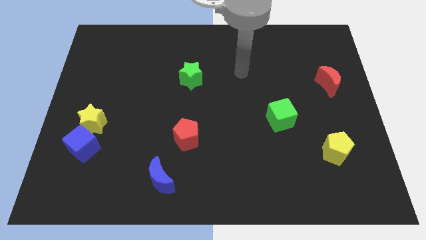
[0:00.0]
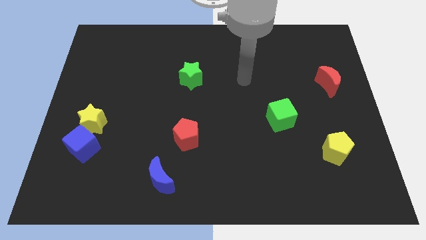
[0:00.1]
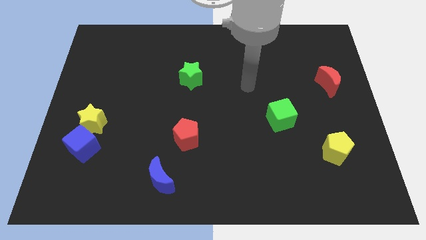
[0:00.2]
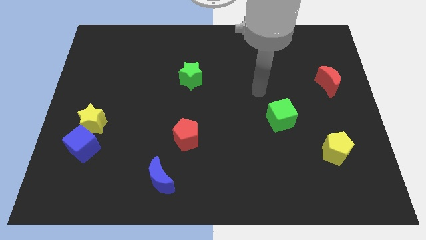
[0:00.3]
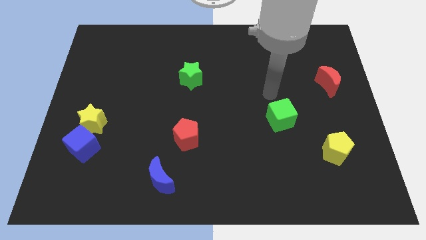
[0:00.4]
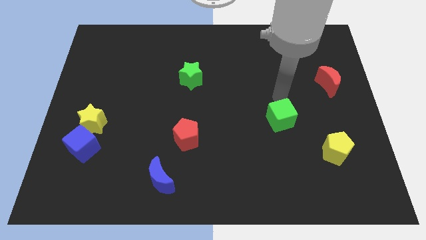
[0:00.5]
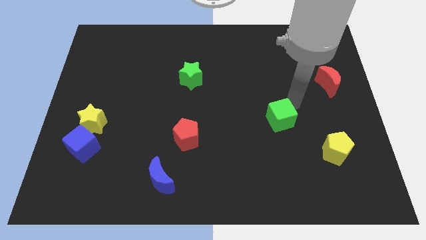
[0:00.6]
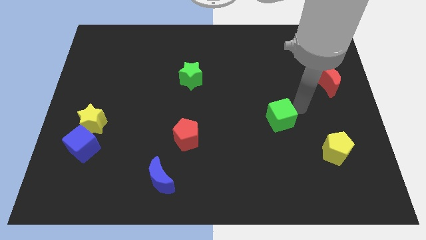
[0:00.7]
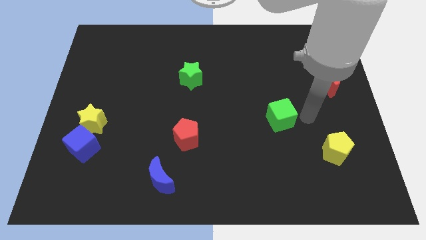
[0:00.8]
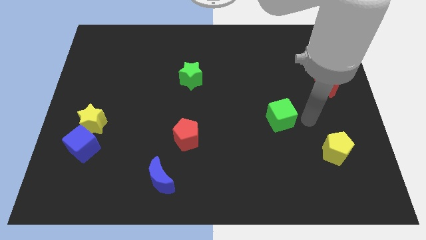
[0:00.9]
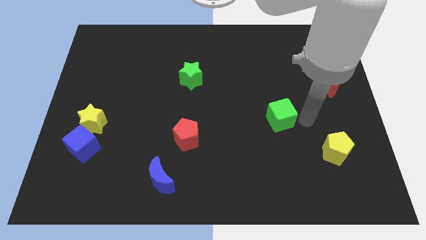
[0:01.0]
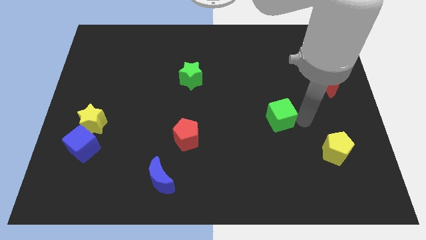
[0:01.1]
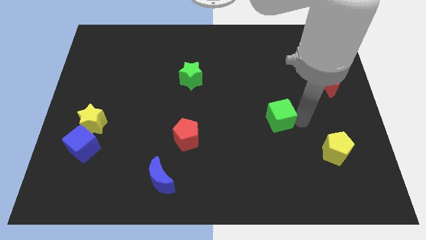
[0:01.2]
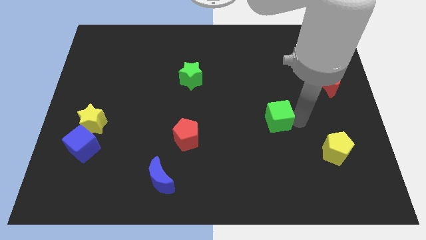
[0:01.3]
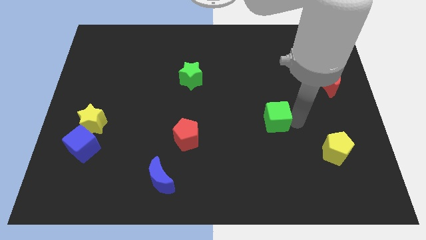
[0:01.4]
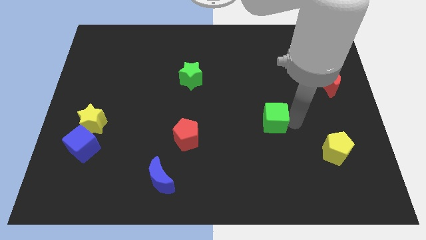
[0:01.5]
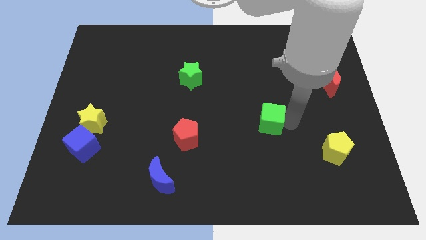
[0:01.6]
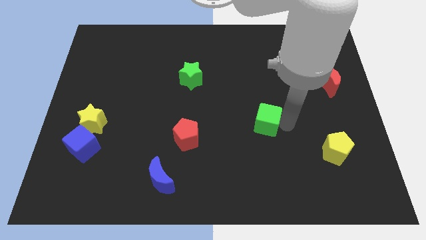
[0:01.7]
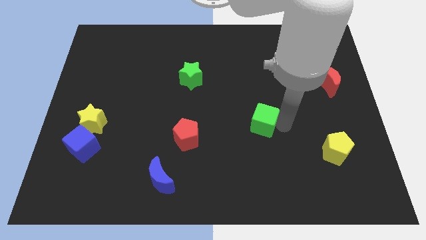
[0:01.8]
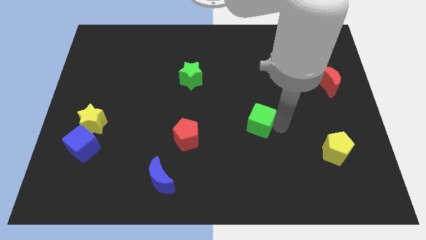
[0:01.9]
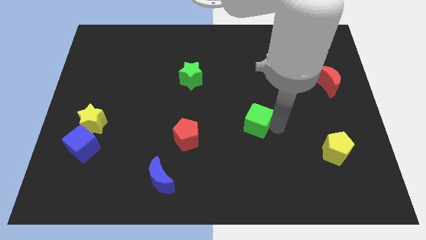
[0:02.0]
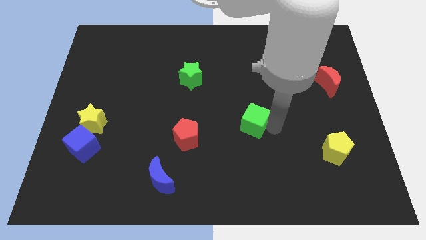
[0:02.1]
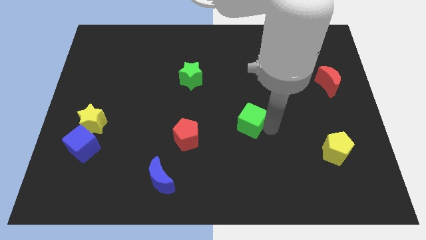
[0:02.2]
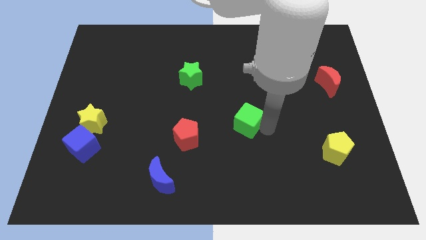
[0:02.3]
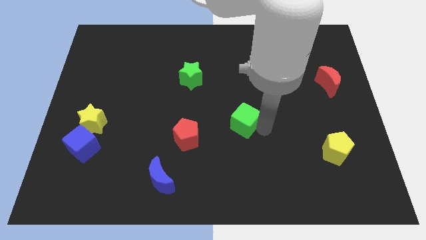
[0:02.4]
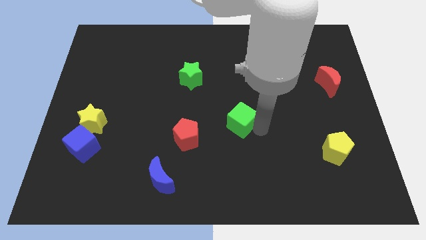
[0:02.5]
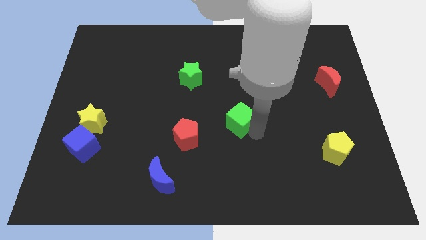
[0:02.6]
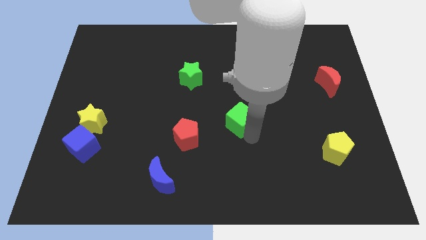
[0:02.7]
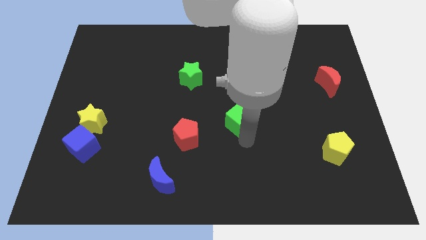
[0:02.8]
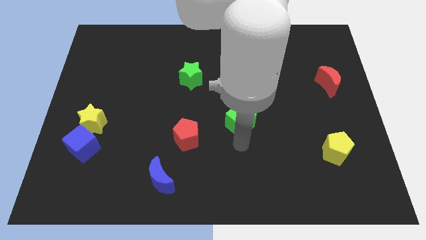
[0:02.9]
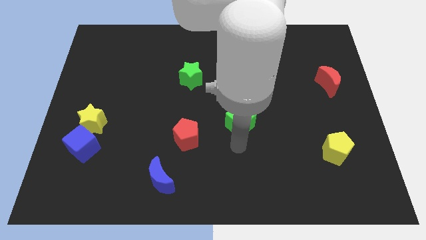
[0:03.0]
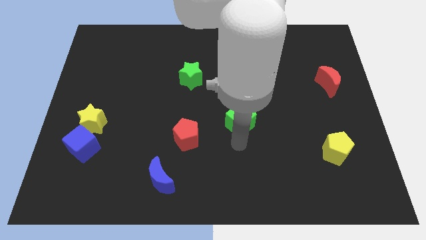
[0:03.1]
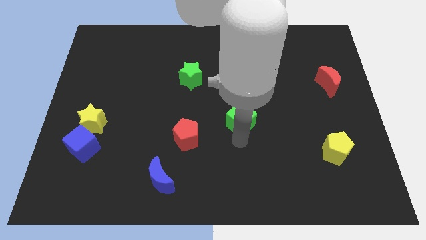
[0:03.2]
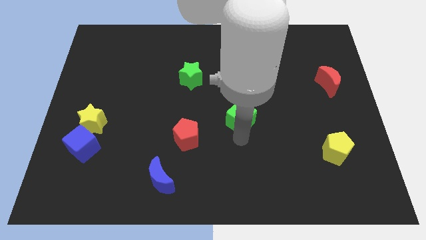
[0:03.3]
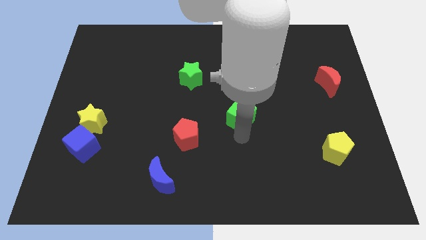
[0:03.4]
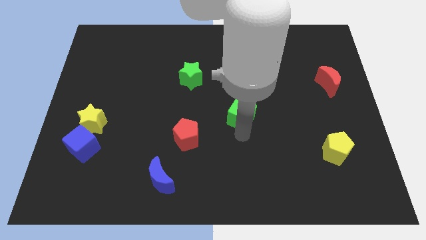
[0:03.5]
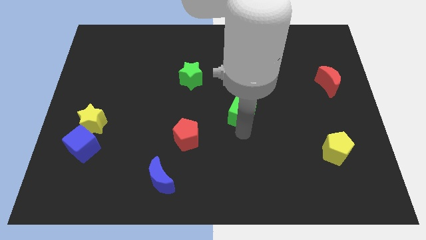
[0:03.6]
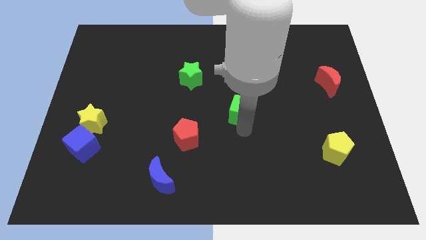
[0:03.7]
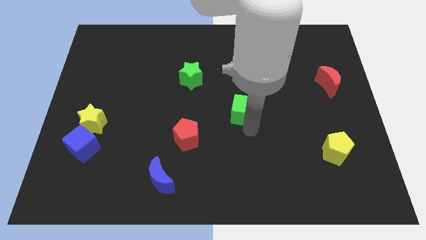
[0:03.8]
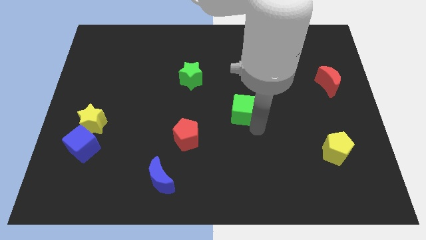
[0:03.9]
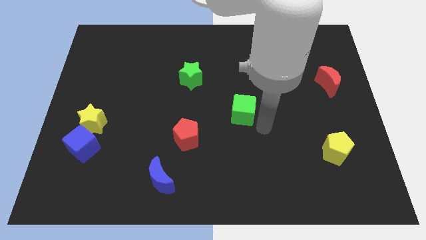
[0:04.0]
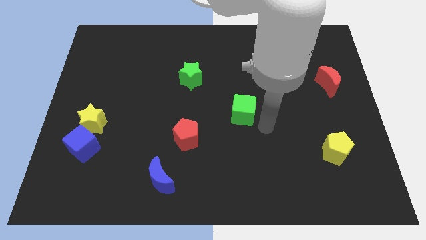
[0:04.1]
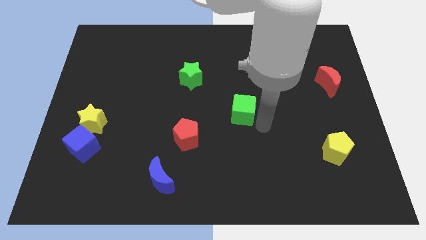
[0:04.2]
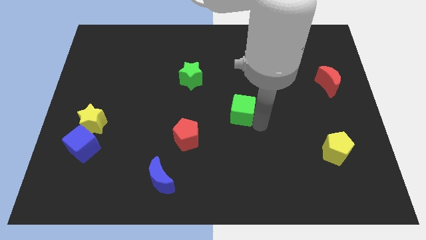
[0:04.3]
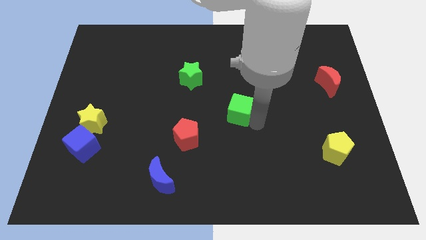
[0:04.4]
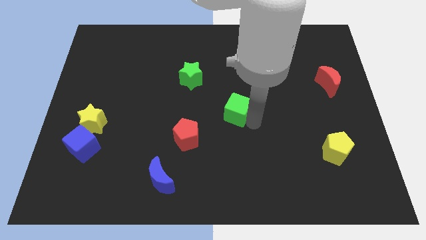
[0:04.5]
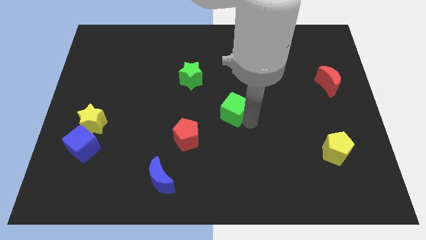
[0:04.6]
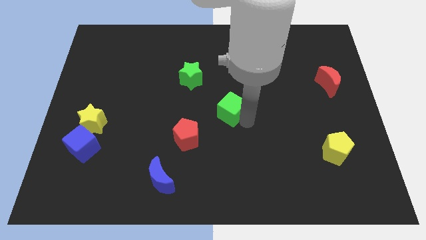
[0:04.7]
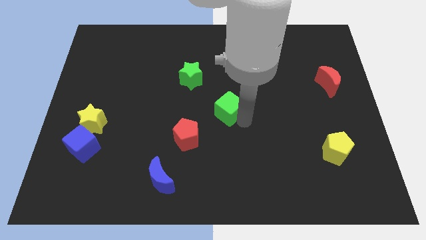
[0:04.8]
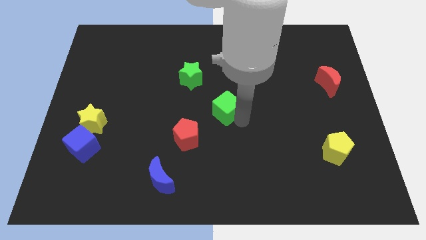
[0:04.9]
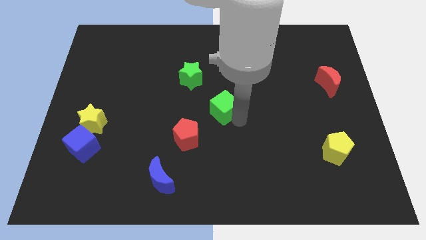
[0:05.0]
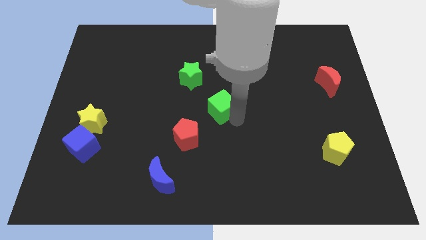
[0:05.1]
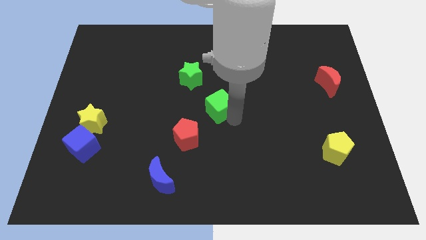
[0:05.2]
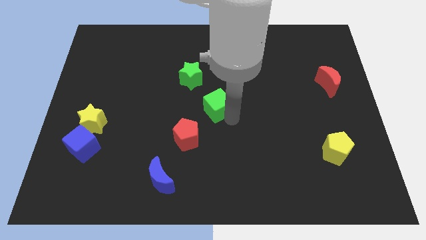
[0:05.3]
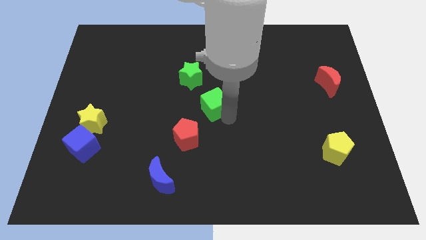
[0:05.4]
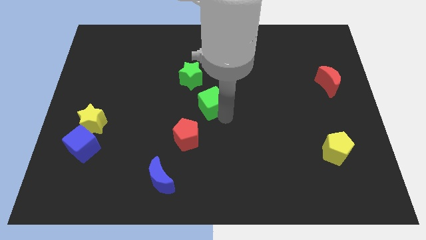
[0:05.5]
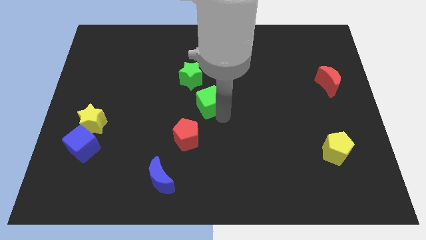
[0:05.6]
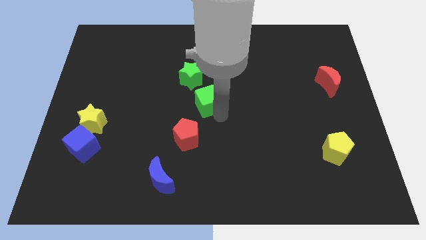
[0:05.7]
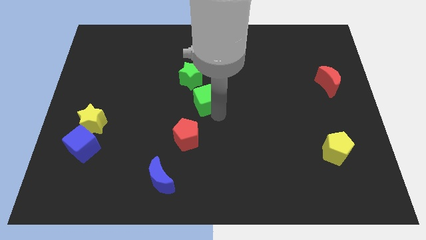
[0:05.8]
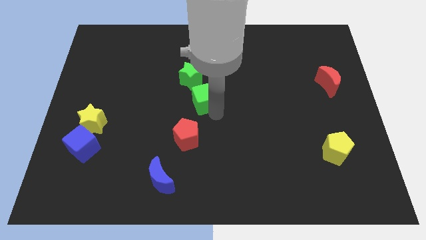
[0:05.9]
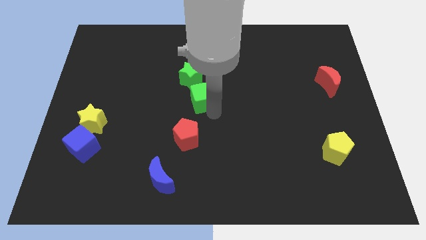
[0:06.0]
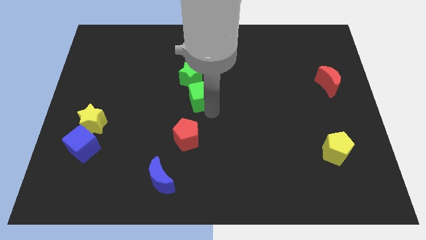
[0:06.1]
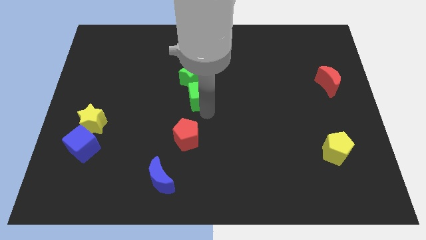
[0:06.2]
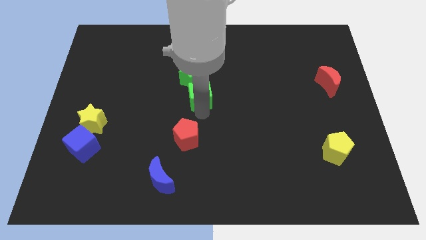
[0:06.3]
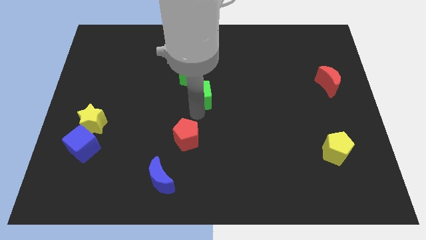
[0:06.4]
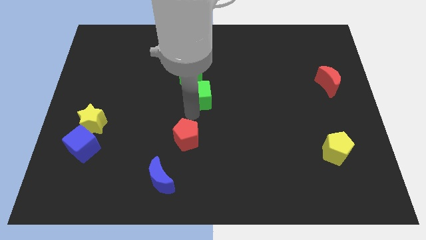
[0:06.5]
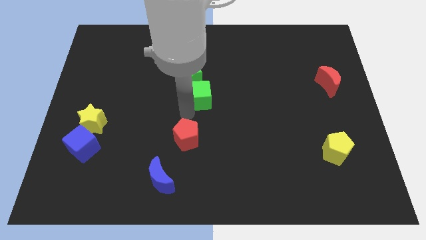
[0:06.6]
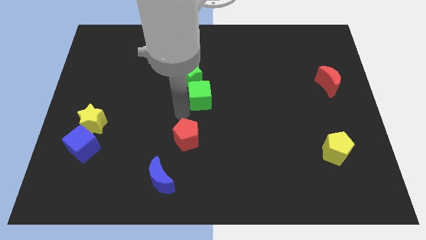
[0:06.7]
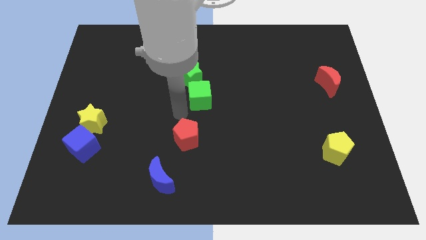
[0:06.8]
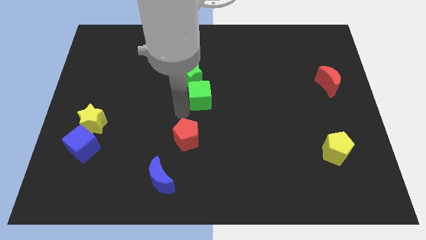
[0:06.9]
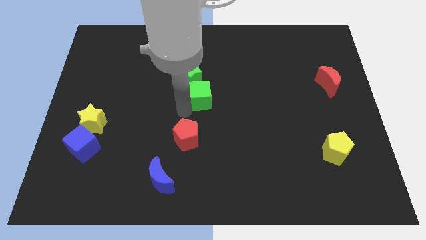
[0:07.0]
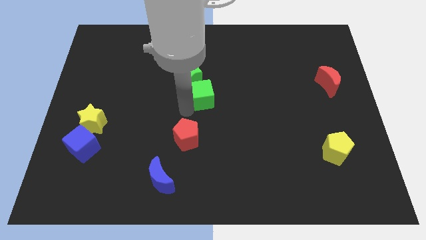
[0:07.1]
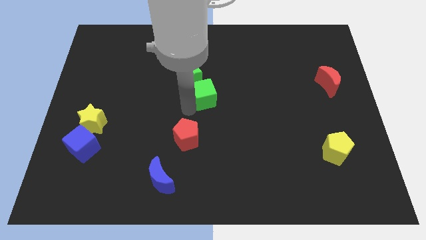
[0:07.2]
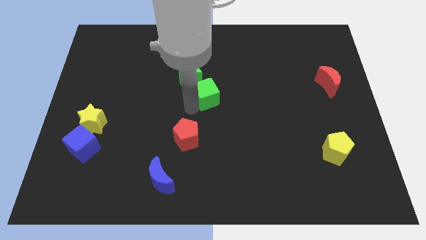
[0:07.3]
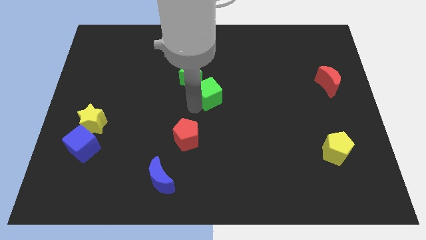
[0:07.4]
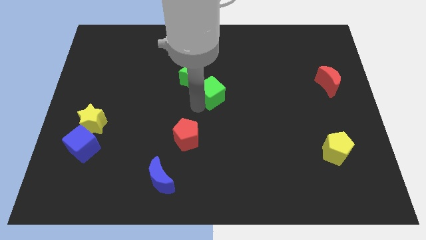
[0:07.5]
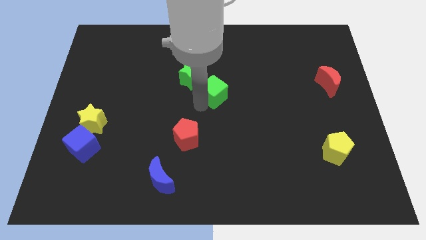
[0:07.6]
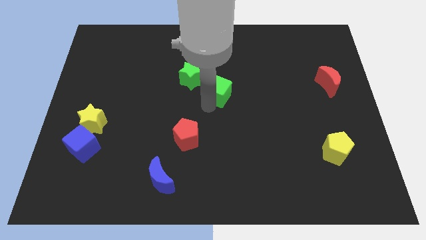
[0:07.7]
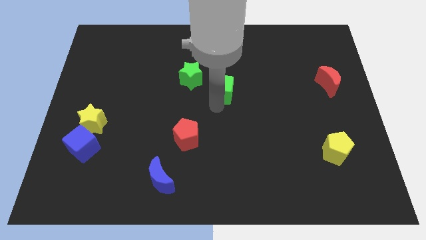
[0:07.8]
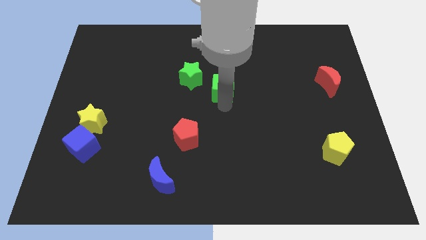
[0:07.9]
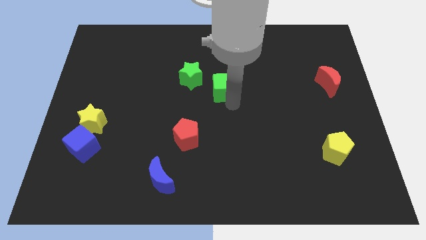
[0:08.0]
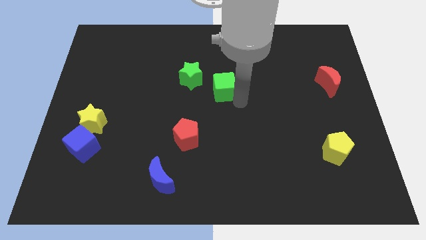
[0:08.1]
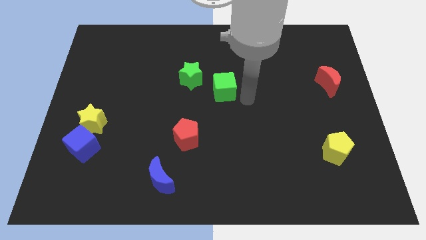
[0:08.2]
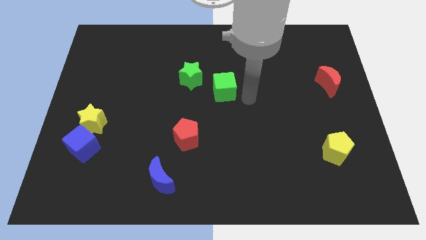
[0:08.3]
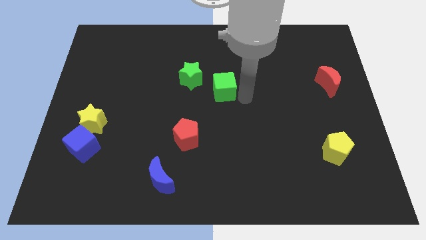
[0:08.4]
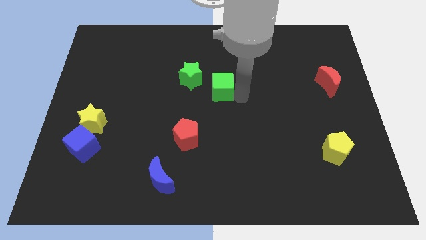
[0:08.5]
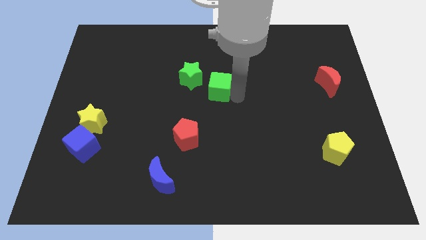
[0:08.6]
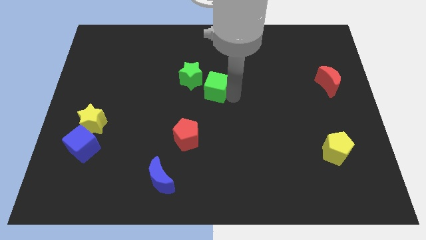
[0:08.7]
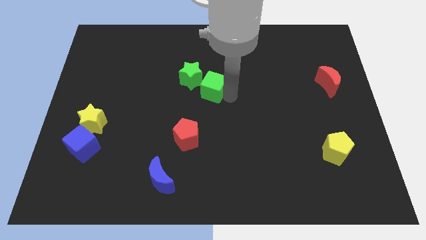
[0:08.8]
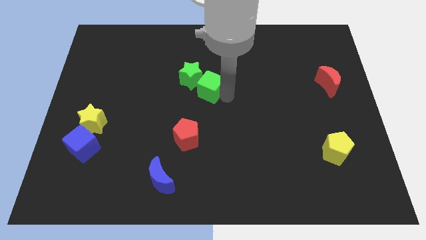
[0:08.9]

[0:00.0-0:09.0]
slide the green cube towards the green star
